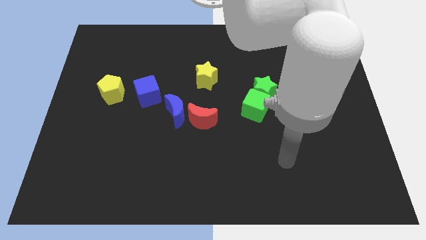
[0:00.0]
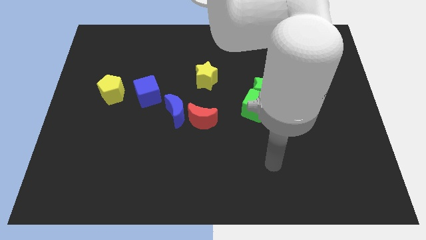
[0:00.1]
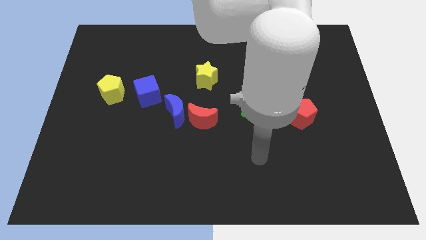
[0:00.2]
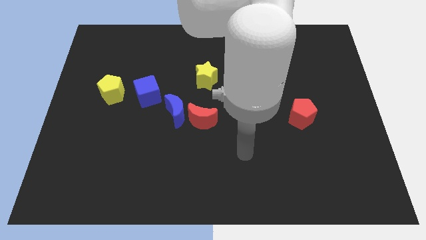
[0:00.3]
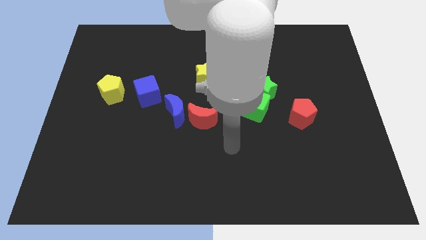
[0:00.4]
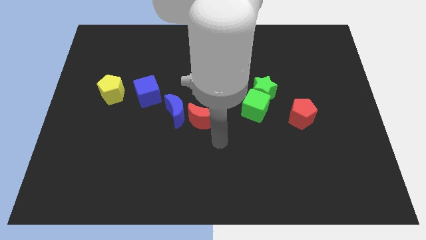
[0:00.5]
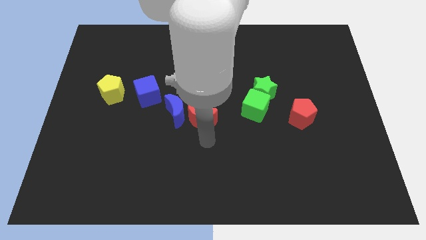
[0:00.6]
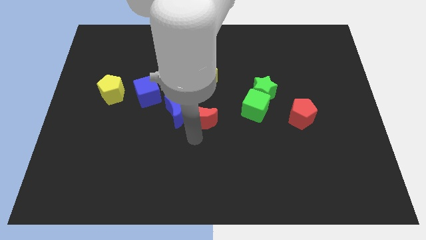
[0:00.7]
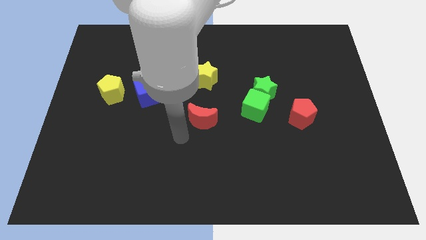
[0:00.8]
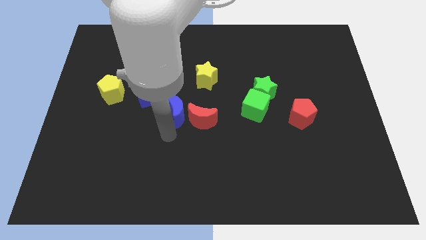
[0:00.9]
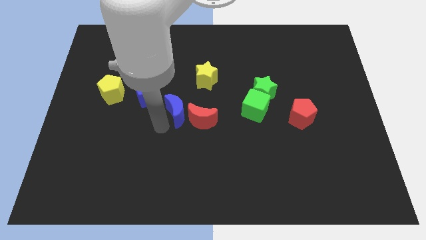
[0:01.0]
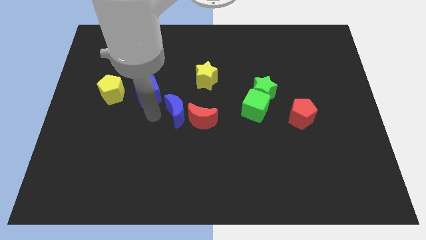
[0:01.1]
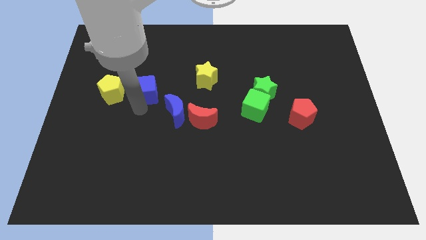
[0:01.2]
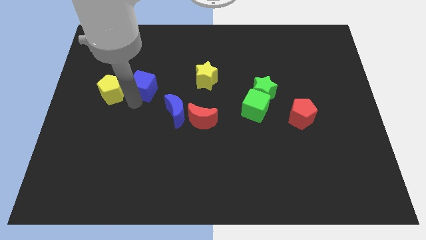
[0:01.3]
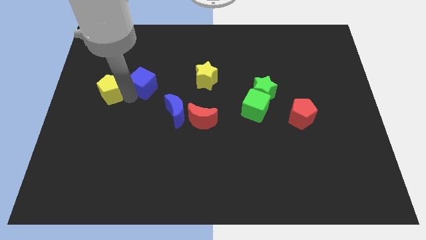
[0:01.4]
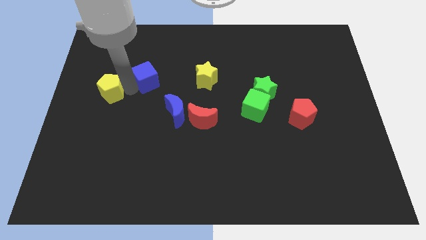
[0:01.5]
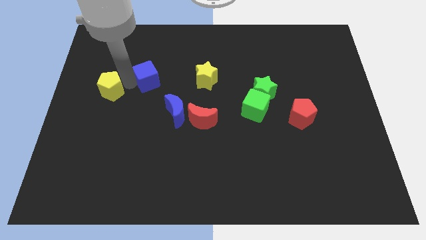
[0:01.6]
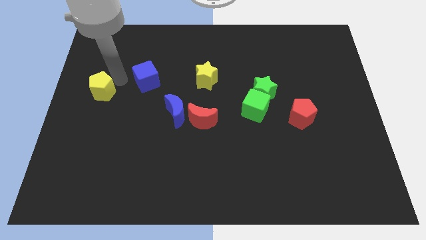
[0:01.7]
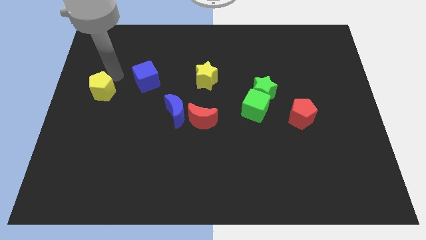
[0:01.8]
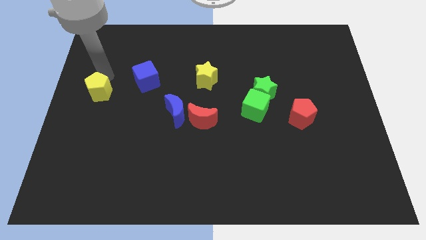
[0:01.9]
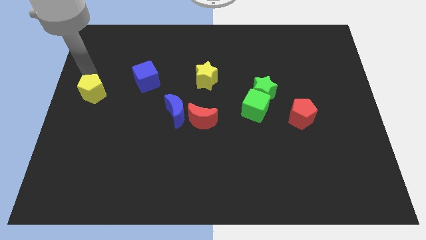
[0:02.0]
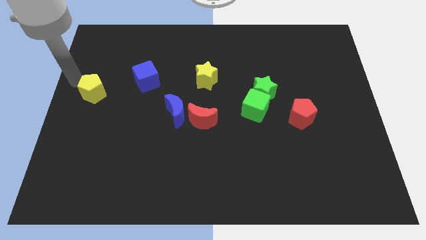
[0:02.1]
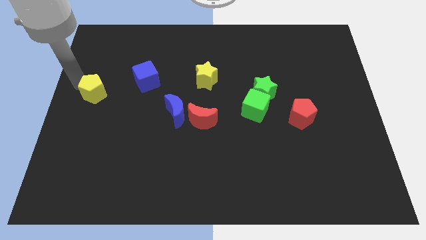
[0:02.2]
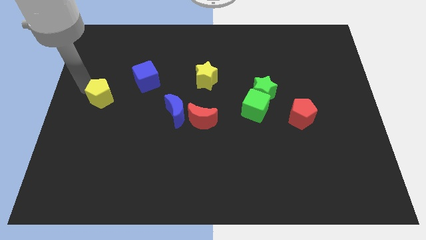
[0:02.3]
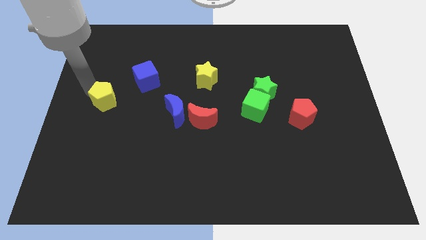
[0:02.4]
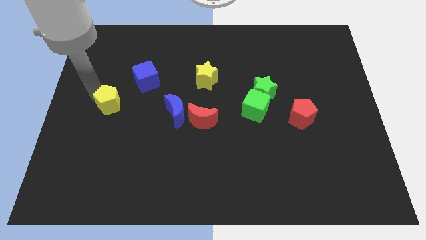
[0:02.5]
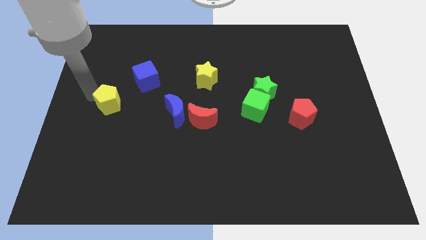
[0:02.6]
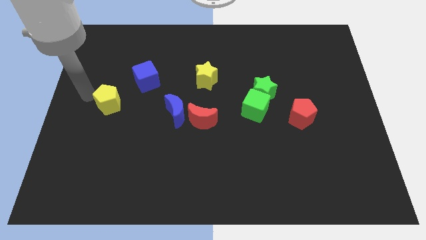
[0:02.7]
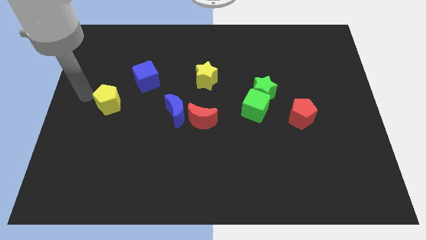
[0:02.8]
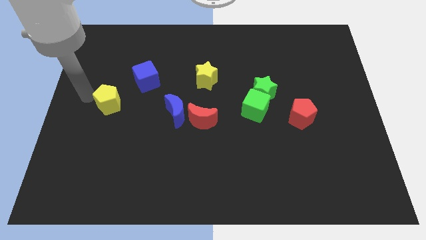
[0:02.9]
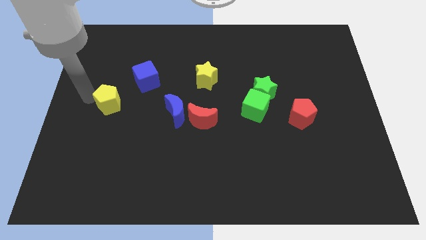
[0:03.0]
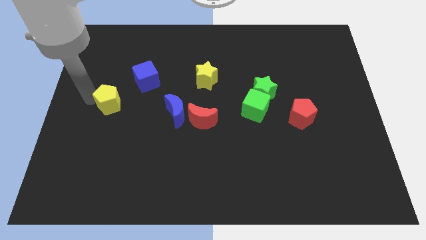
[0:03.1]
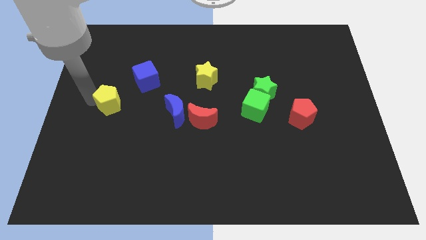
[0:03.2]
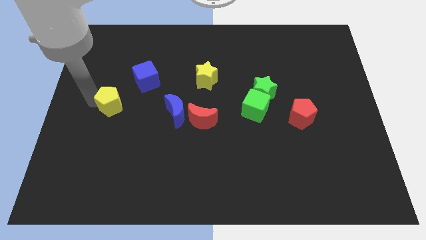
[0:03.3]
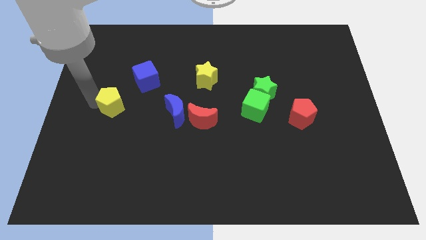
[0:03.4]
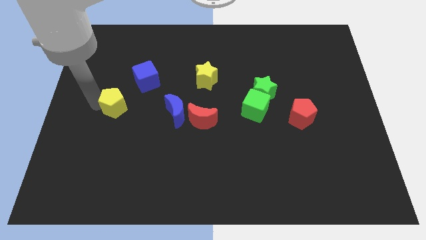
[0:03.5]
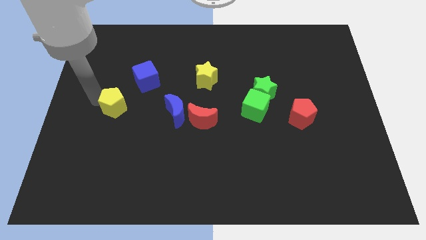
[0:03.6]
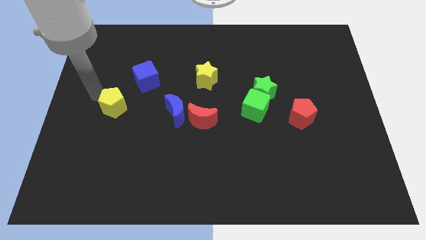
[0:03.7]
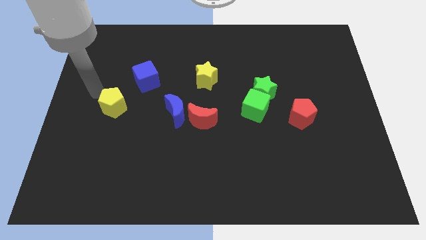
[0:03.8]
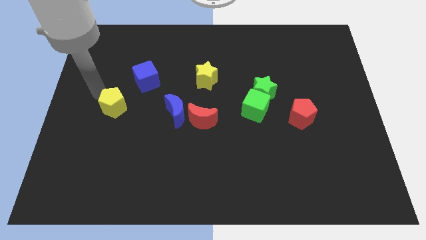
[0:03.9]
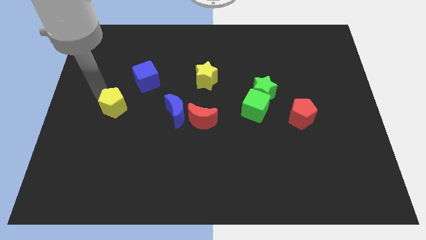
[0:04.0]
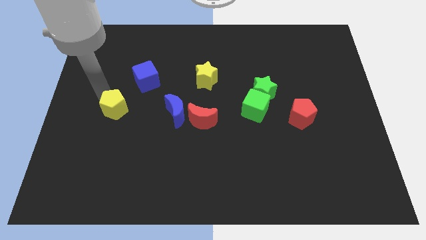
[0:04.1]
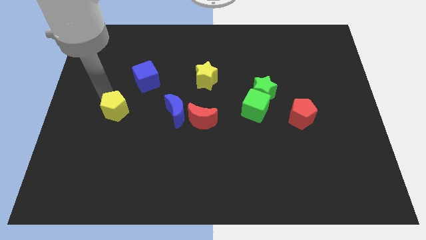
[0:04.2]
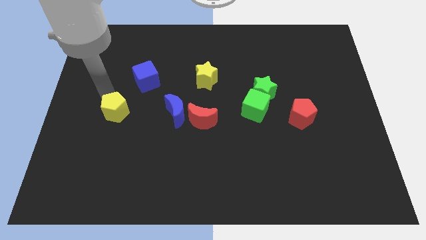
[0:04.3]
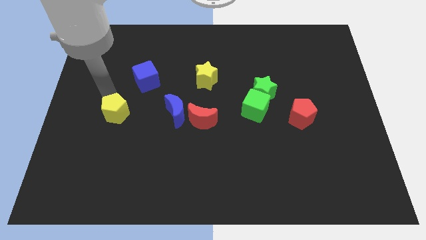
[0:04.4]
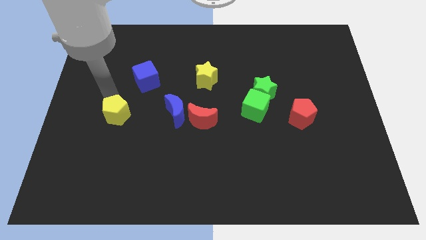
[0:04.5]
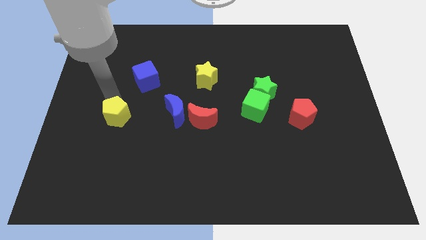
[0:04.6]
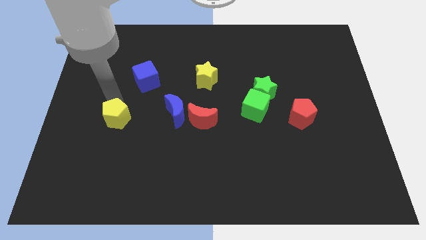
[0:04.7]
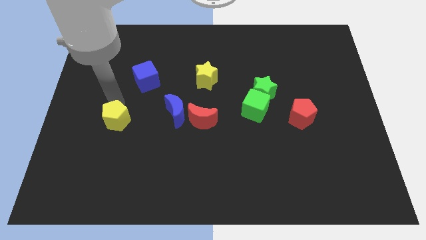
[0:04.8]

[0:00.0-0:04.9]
push the yellow pentagon diagonally down and right a bit

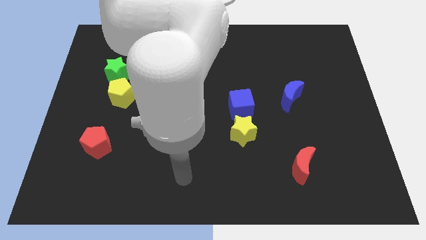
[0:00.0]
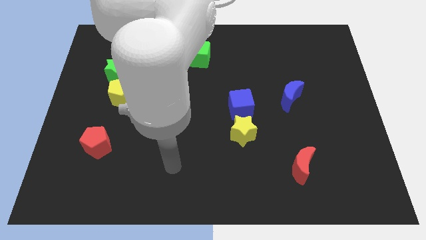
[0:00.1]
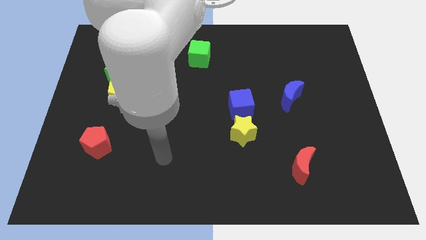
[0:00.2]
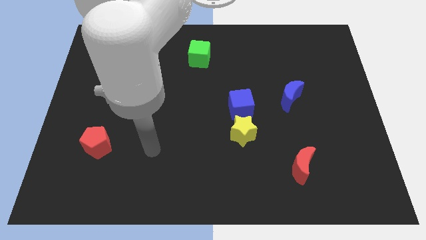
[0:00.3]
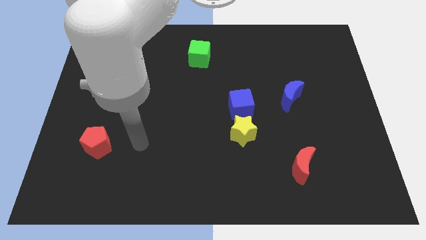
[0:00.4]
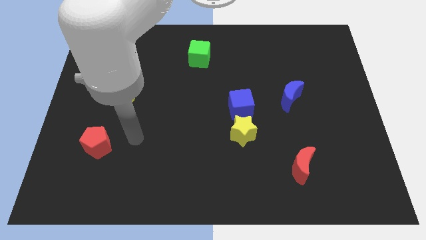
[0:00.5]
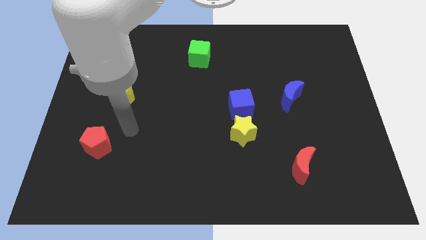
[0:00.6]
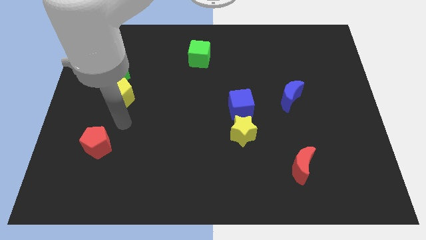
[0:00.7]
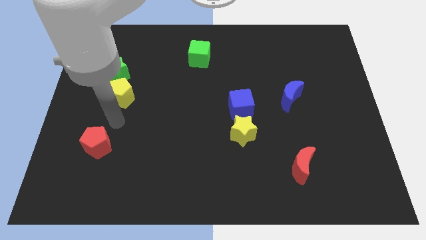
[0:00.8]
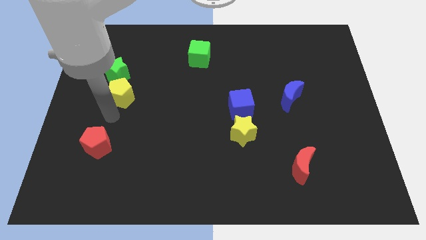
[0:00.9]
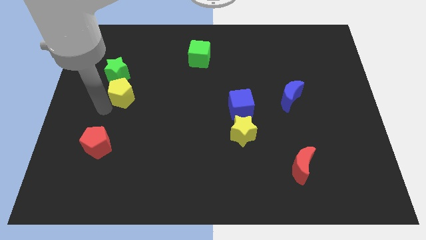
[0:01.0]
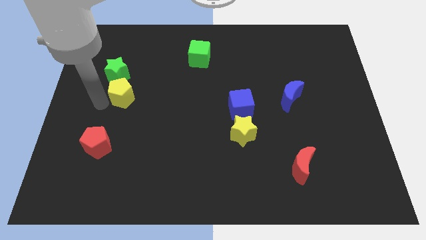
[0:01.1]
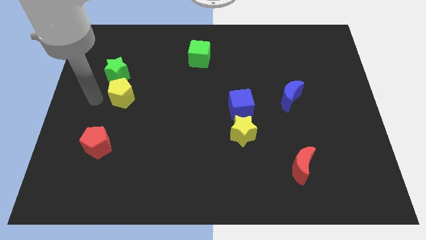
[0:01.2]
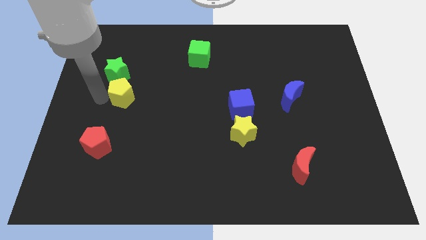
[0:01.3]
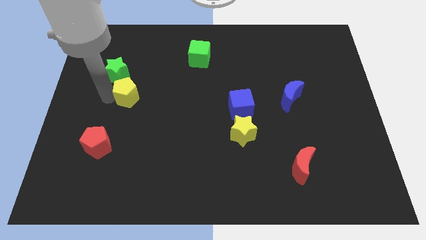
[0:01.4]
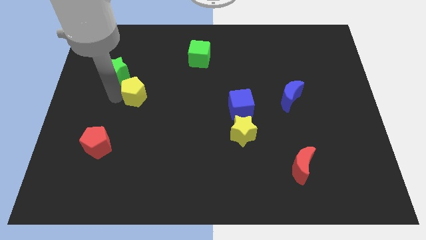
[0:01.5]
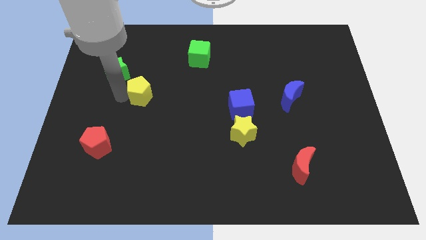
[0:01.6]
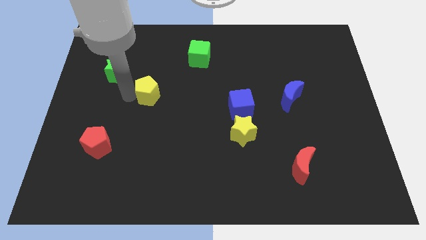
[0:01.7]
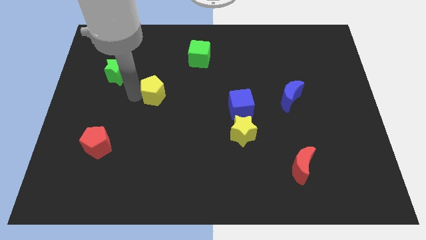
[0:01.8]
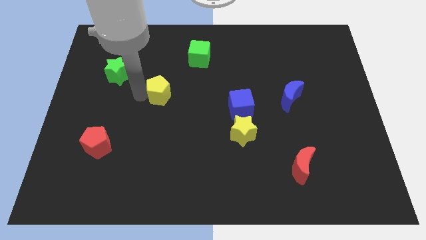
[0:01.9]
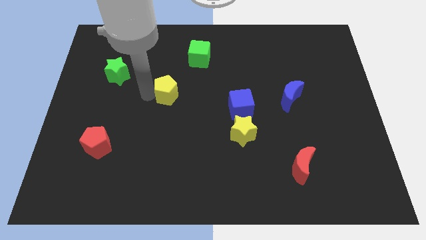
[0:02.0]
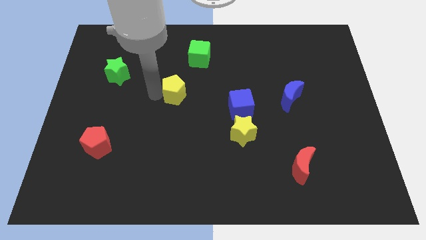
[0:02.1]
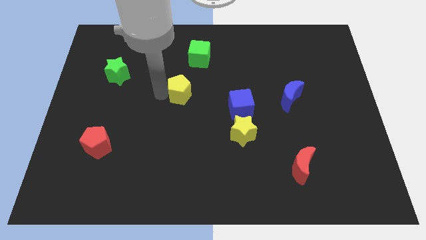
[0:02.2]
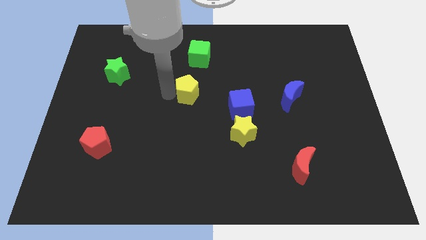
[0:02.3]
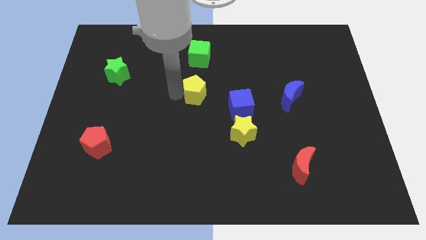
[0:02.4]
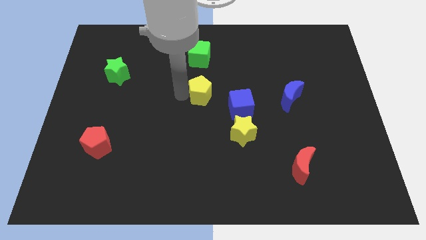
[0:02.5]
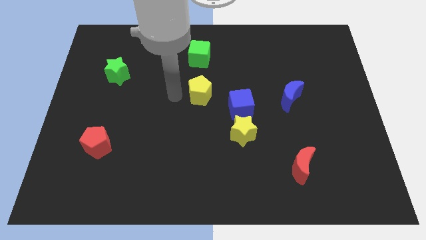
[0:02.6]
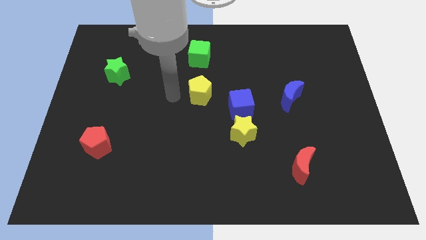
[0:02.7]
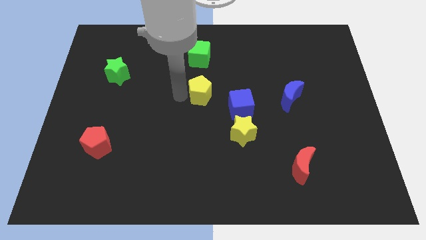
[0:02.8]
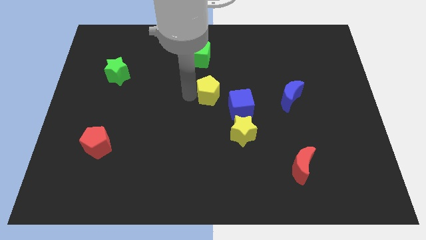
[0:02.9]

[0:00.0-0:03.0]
slide the yellow pentagon right
